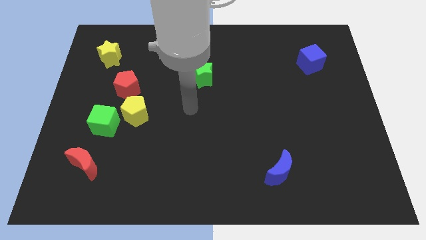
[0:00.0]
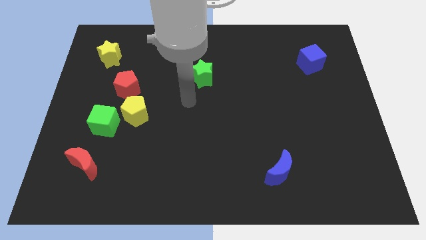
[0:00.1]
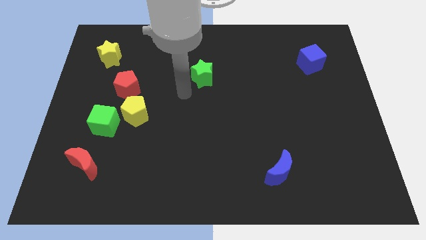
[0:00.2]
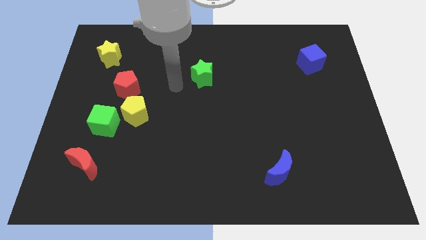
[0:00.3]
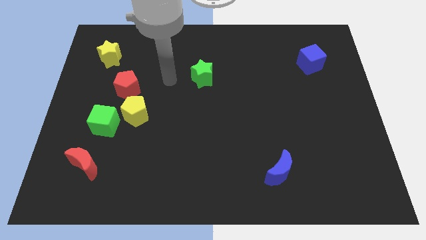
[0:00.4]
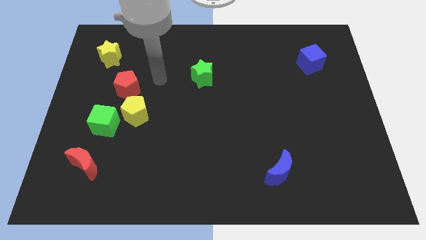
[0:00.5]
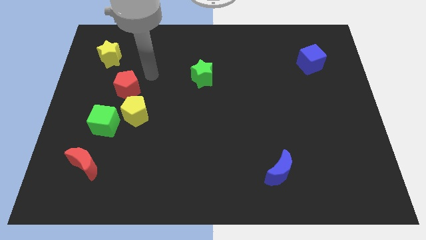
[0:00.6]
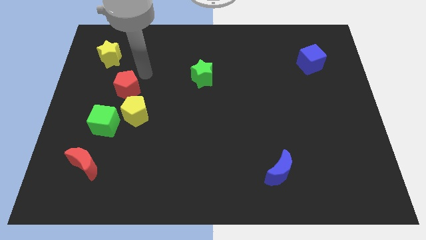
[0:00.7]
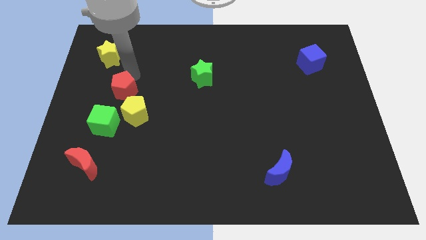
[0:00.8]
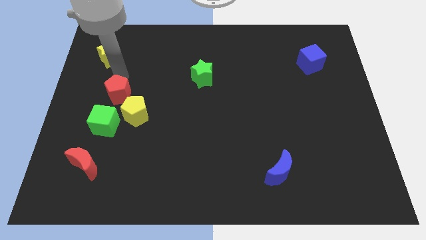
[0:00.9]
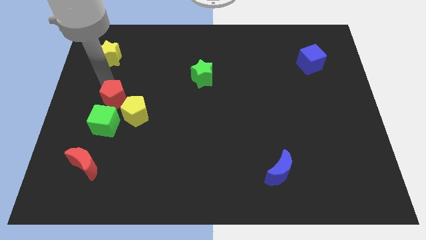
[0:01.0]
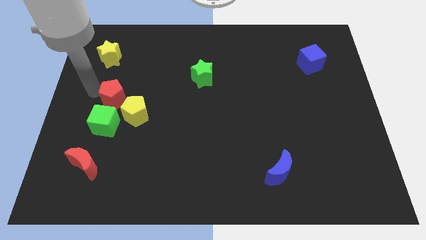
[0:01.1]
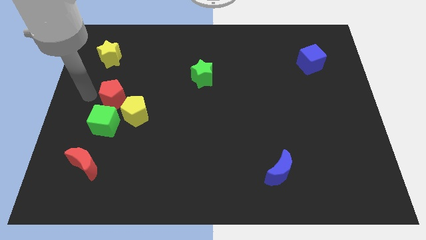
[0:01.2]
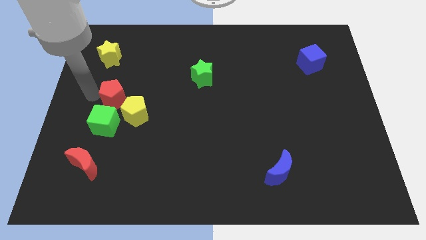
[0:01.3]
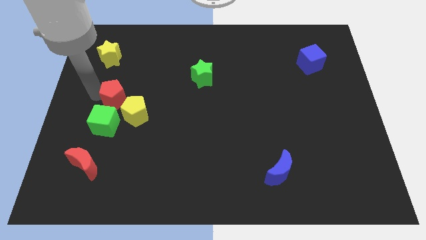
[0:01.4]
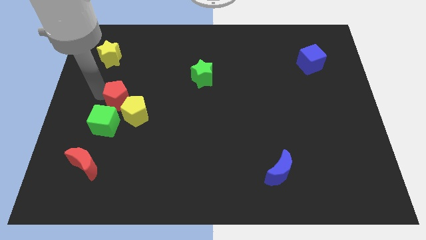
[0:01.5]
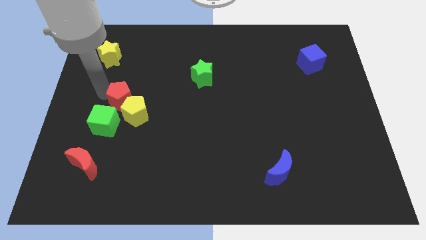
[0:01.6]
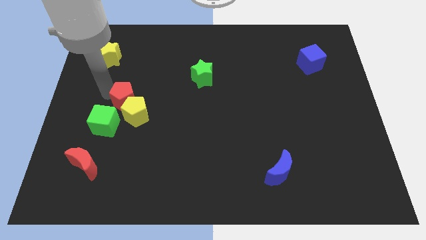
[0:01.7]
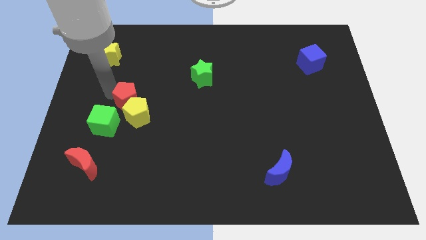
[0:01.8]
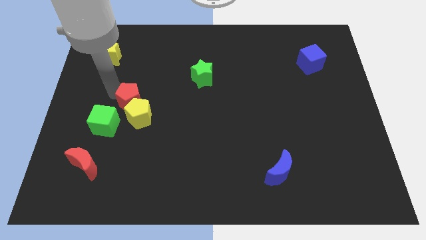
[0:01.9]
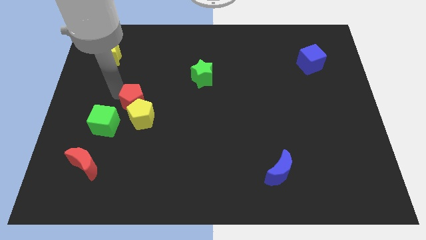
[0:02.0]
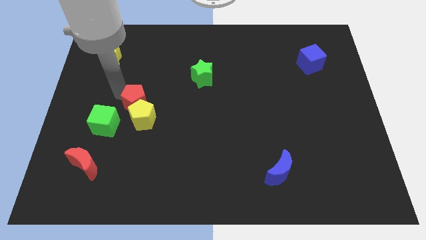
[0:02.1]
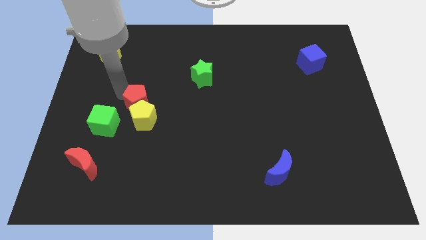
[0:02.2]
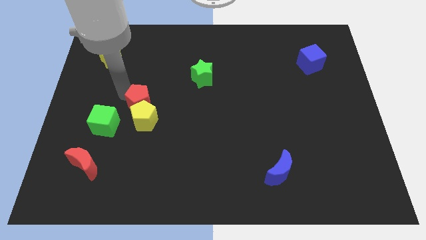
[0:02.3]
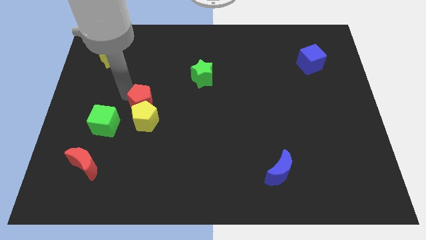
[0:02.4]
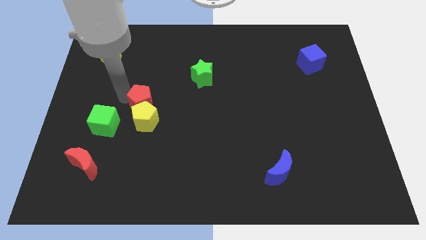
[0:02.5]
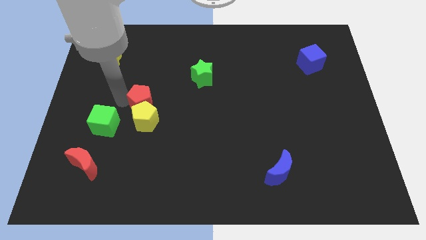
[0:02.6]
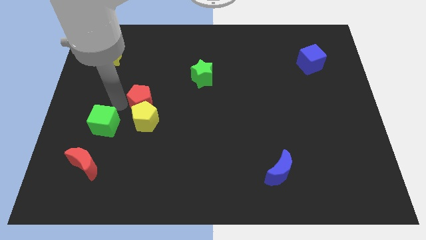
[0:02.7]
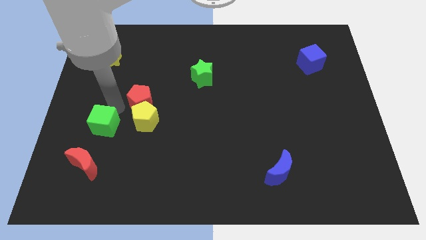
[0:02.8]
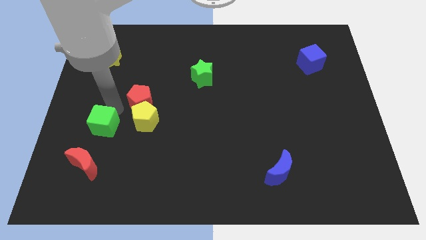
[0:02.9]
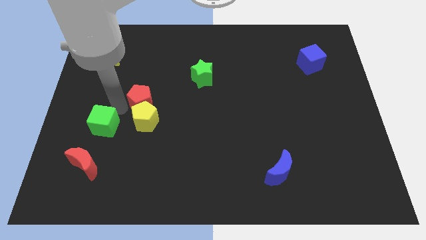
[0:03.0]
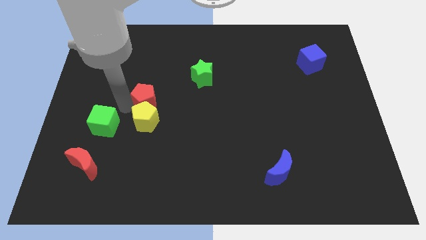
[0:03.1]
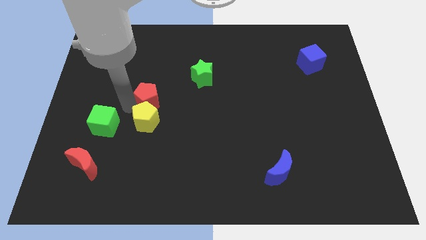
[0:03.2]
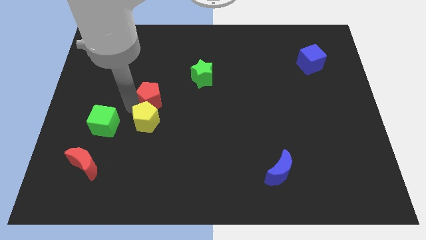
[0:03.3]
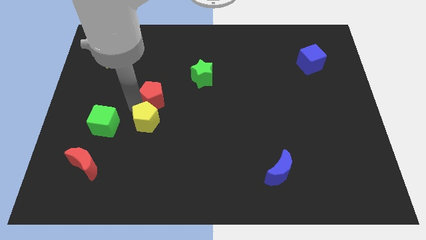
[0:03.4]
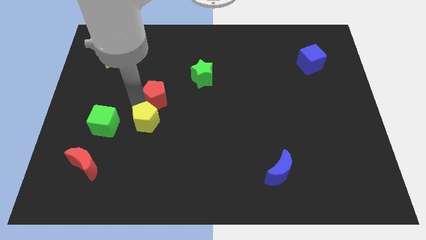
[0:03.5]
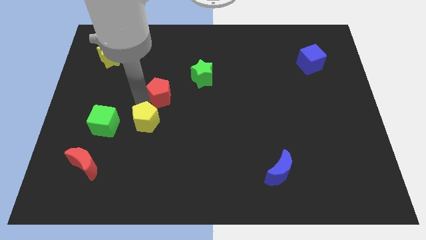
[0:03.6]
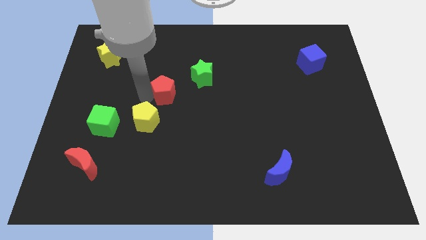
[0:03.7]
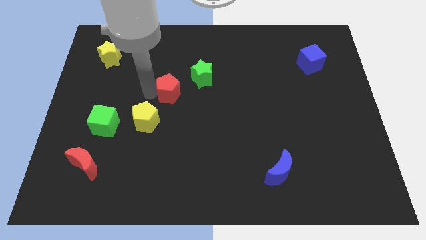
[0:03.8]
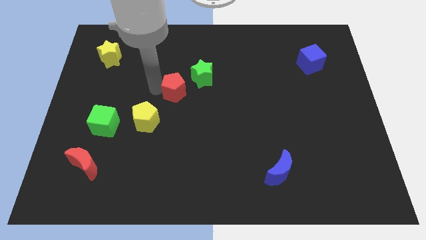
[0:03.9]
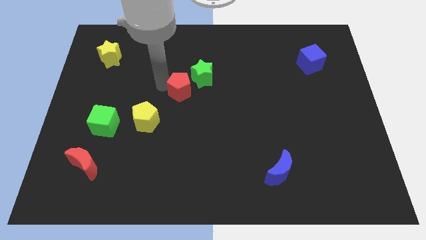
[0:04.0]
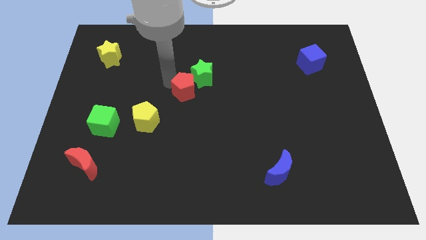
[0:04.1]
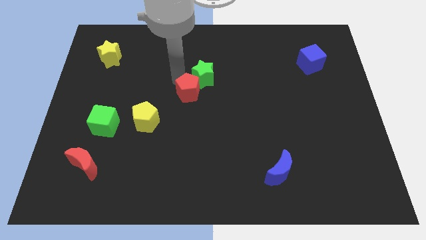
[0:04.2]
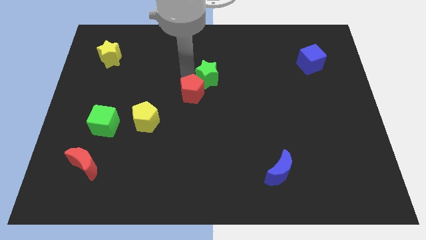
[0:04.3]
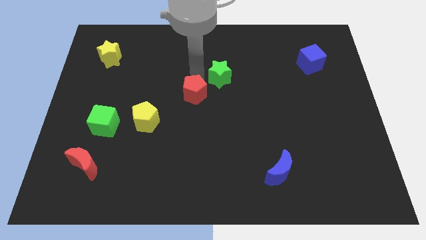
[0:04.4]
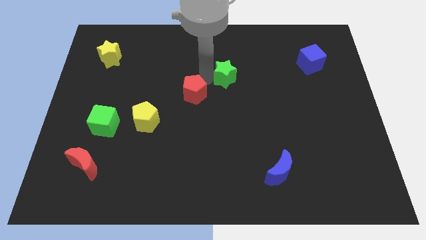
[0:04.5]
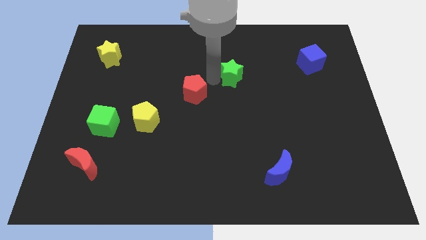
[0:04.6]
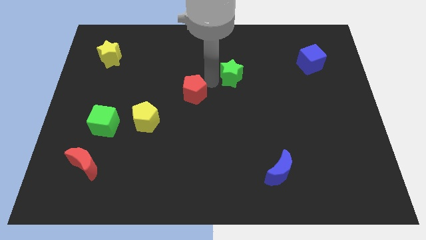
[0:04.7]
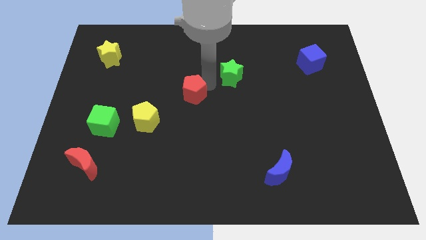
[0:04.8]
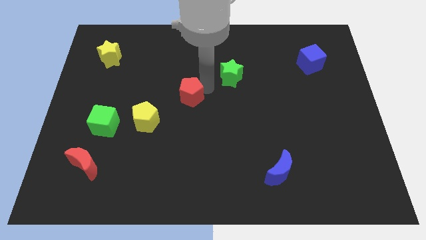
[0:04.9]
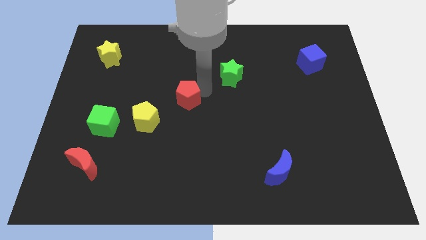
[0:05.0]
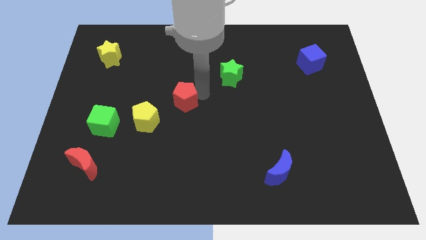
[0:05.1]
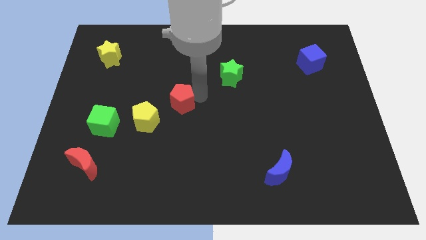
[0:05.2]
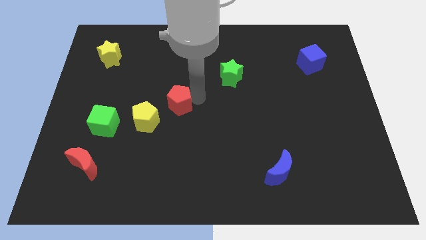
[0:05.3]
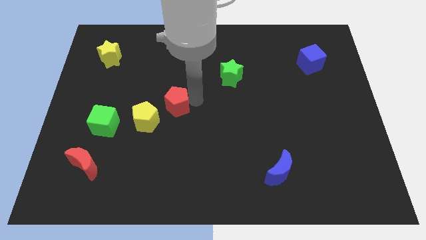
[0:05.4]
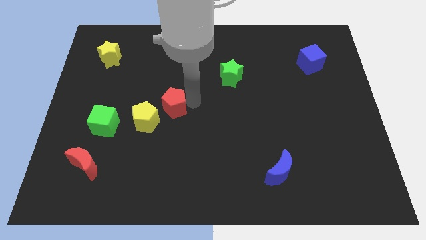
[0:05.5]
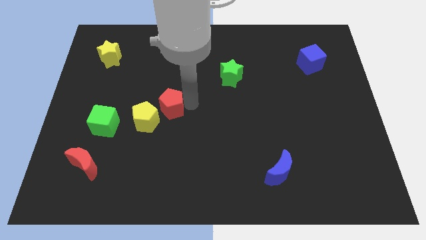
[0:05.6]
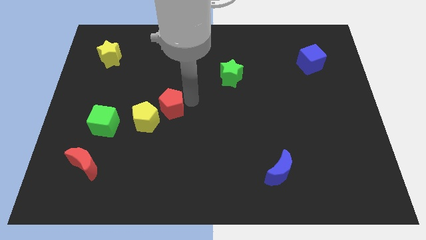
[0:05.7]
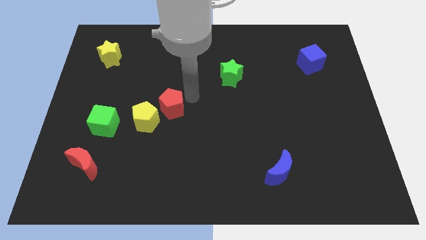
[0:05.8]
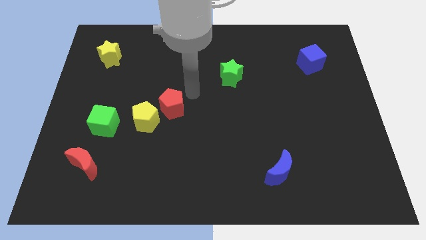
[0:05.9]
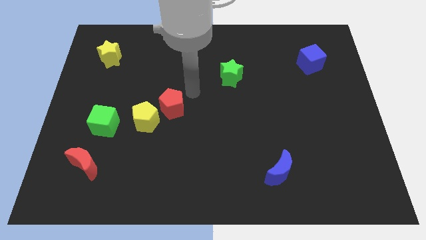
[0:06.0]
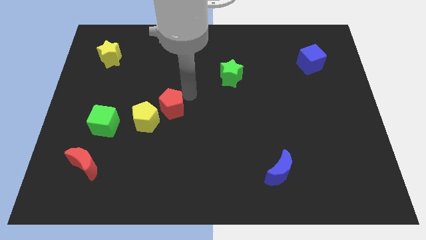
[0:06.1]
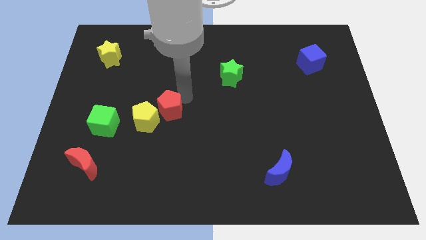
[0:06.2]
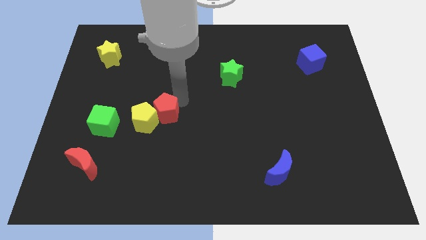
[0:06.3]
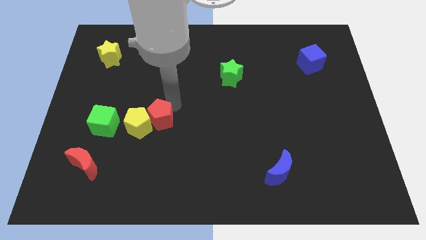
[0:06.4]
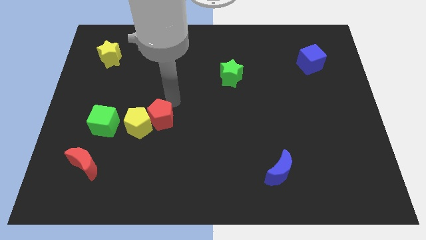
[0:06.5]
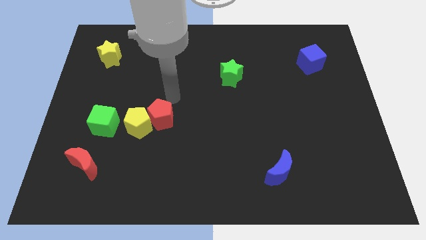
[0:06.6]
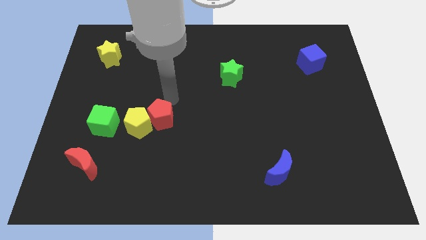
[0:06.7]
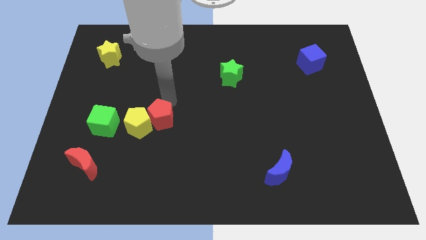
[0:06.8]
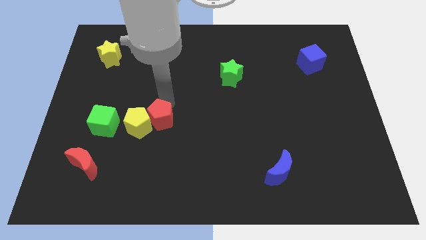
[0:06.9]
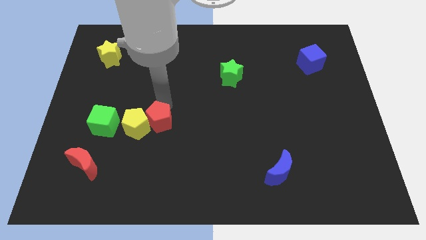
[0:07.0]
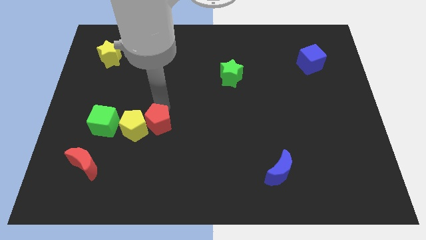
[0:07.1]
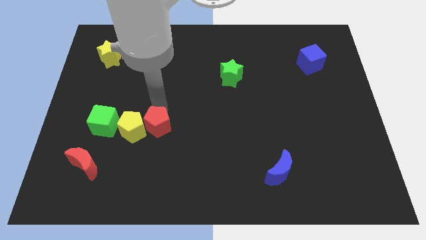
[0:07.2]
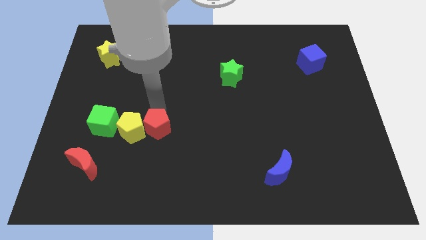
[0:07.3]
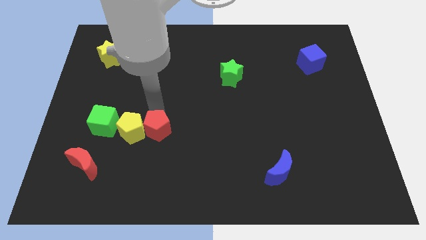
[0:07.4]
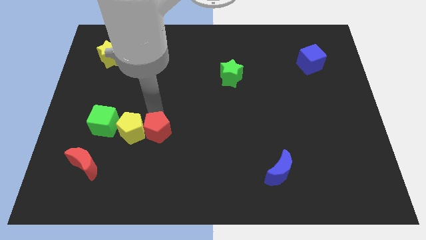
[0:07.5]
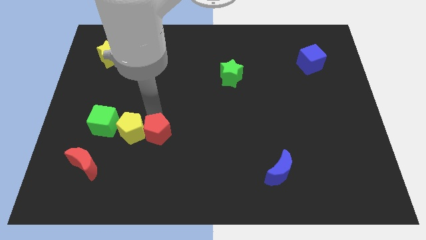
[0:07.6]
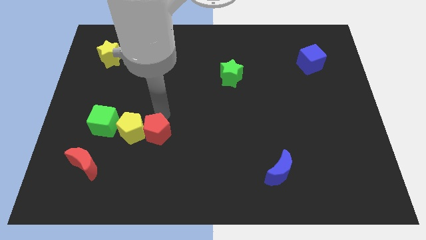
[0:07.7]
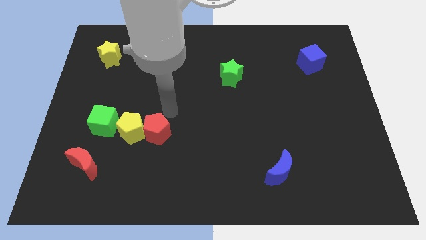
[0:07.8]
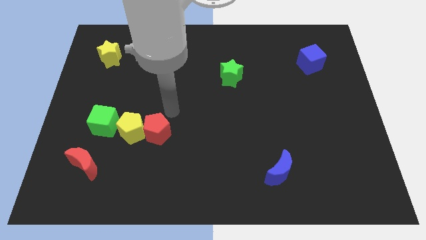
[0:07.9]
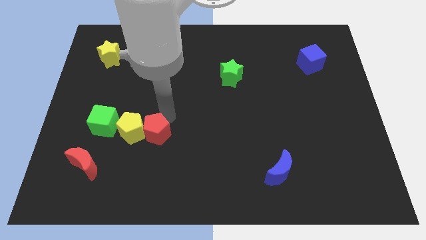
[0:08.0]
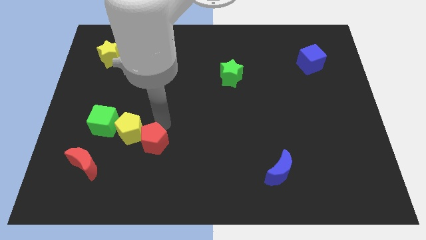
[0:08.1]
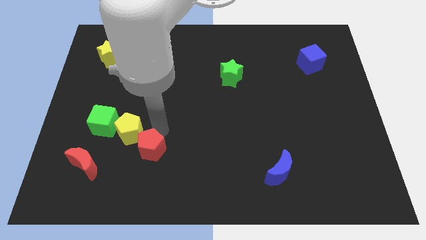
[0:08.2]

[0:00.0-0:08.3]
push the red pentagon right of the red moon
